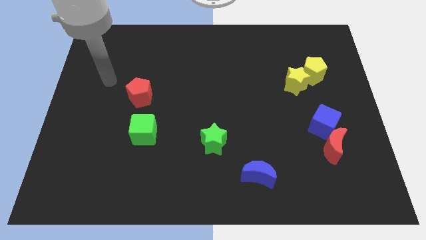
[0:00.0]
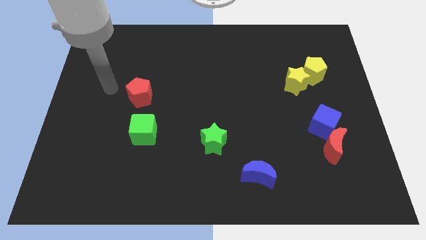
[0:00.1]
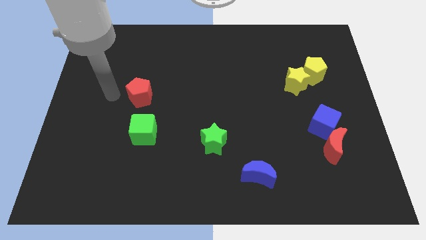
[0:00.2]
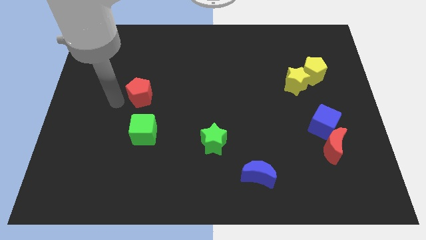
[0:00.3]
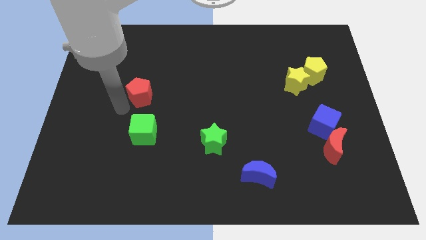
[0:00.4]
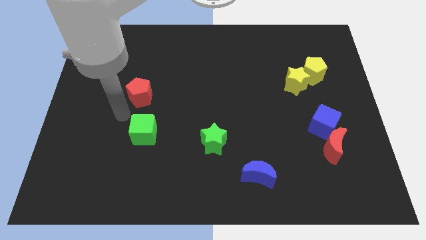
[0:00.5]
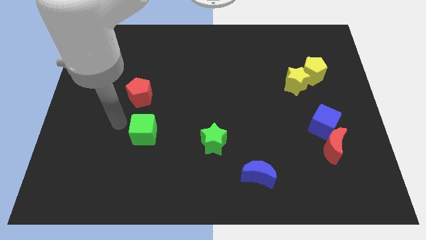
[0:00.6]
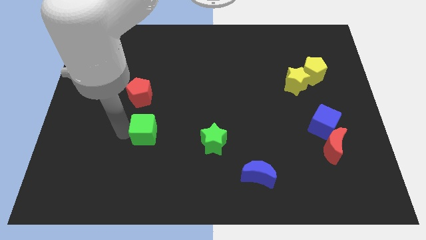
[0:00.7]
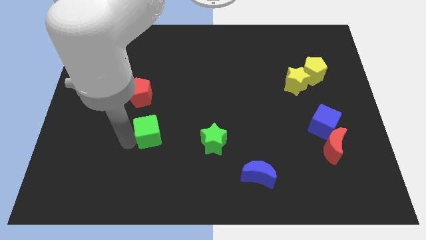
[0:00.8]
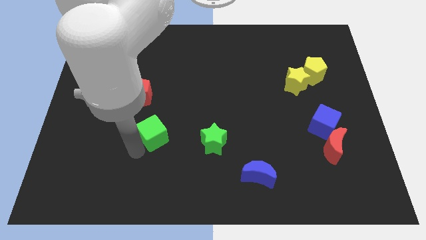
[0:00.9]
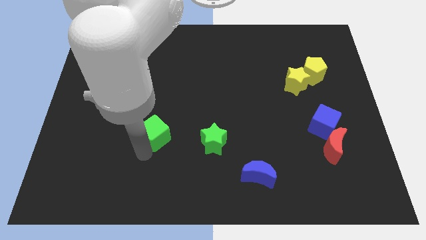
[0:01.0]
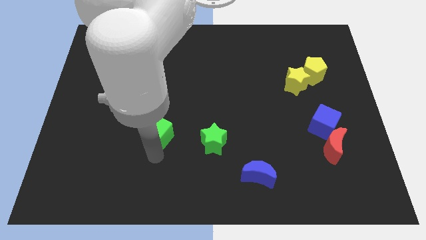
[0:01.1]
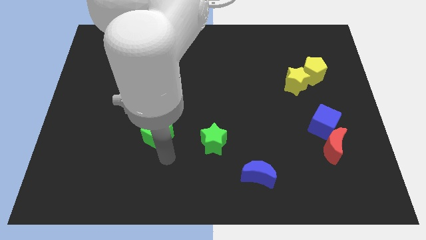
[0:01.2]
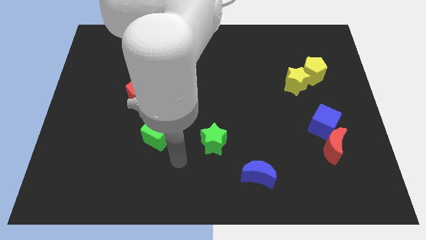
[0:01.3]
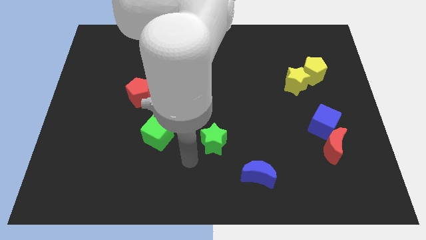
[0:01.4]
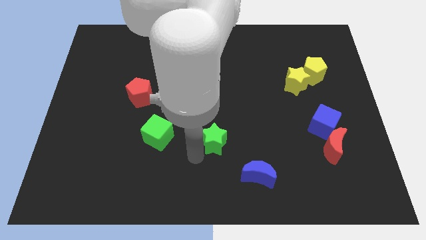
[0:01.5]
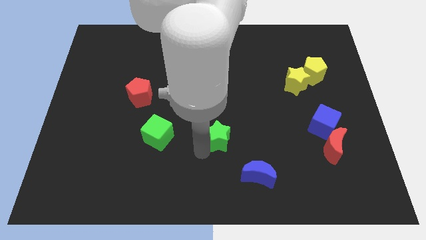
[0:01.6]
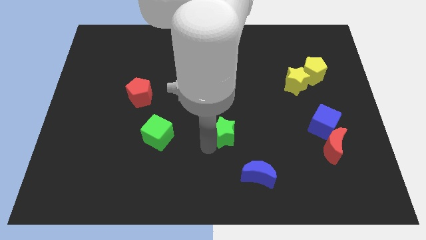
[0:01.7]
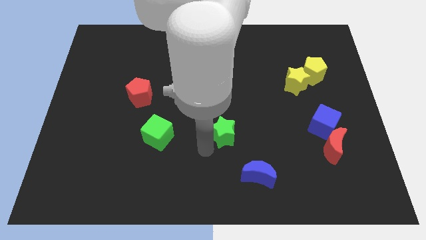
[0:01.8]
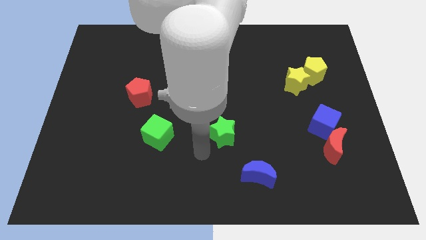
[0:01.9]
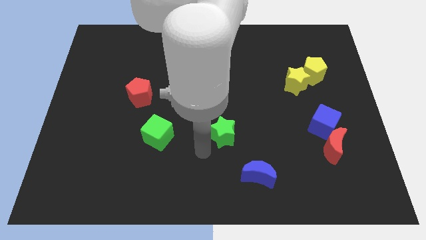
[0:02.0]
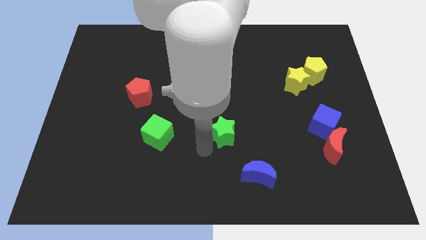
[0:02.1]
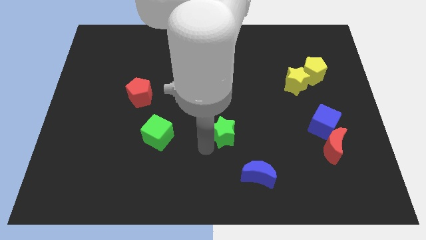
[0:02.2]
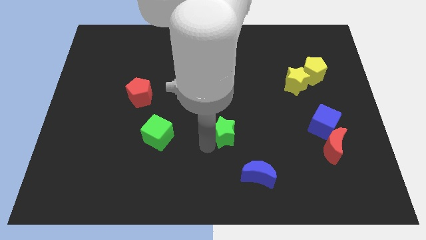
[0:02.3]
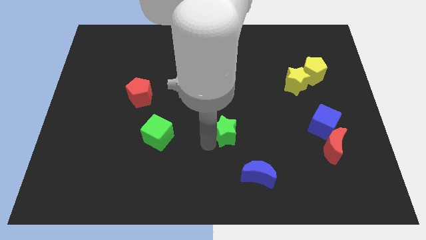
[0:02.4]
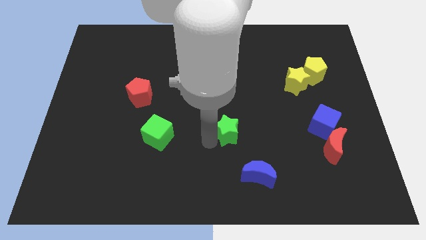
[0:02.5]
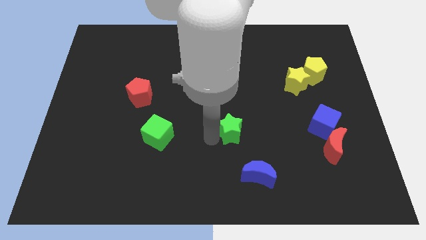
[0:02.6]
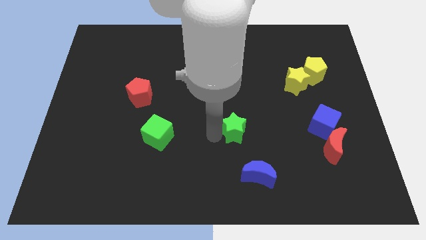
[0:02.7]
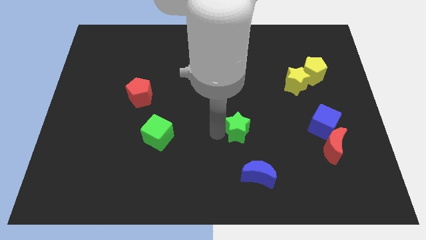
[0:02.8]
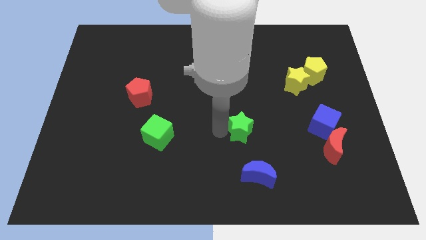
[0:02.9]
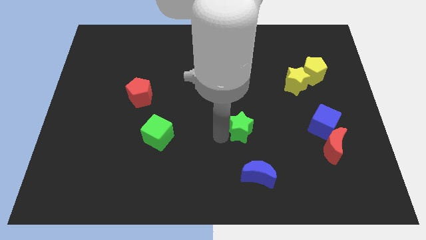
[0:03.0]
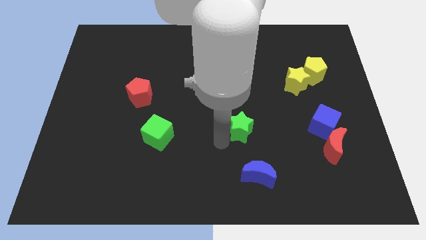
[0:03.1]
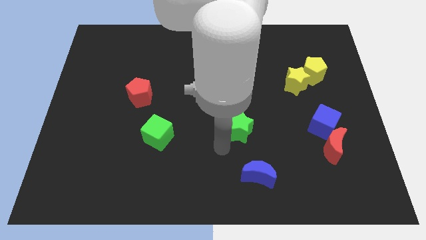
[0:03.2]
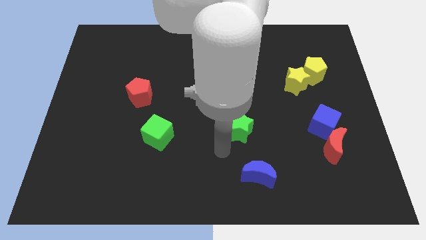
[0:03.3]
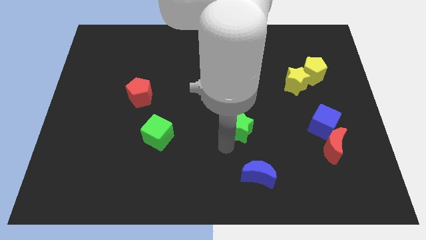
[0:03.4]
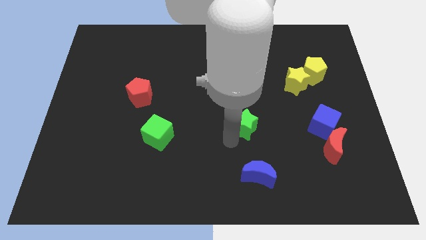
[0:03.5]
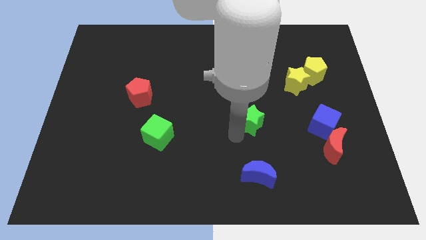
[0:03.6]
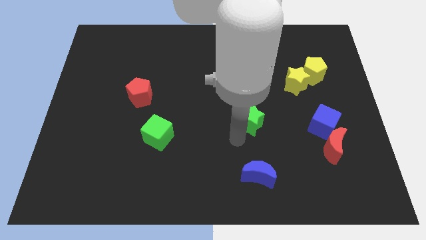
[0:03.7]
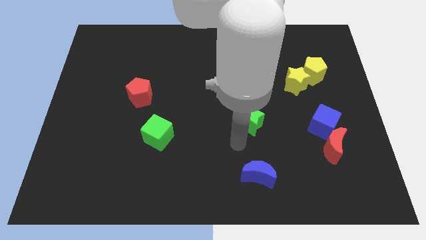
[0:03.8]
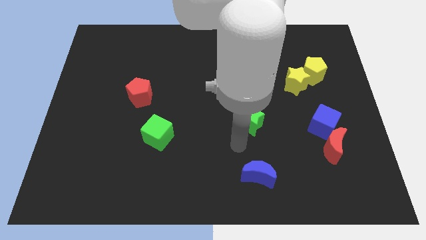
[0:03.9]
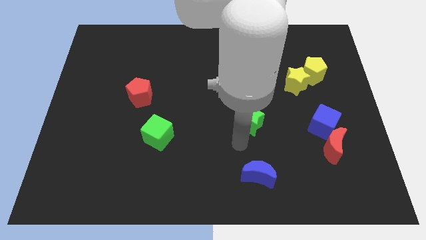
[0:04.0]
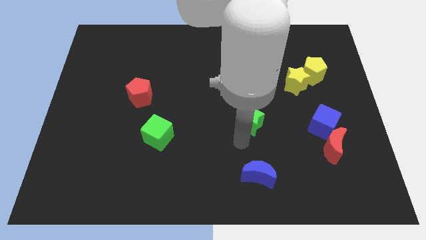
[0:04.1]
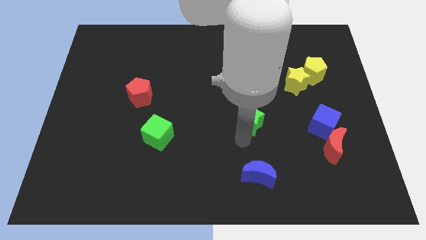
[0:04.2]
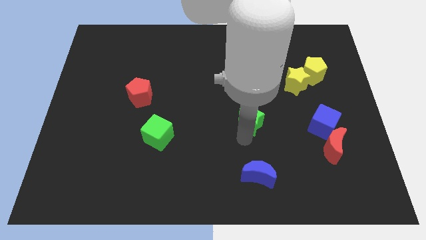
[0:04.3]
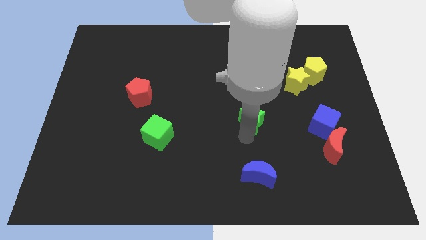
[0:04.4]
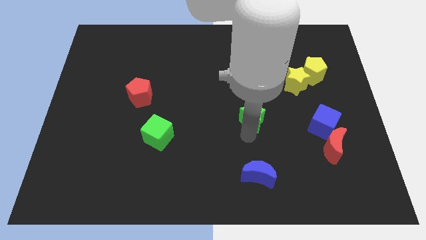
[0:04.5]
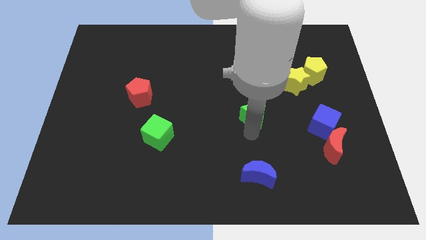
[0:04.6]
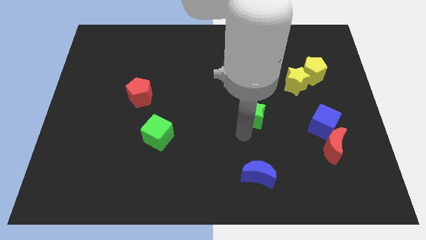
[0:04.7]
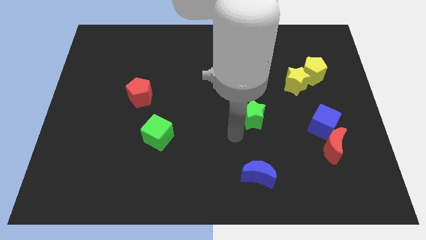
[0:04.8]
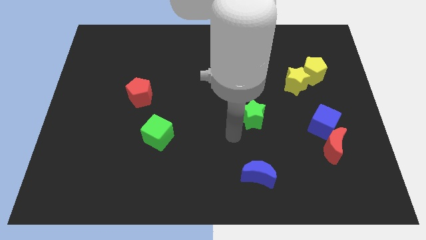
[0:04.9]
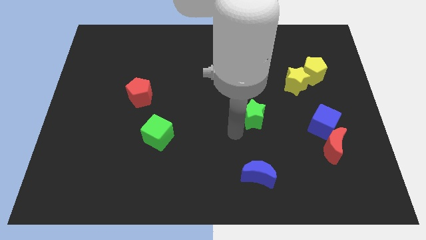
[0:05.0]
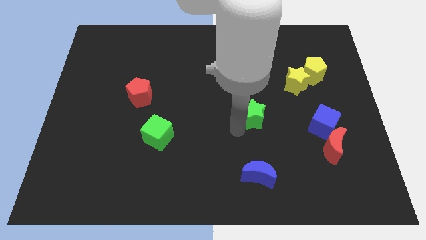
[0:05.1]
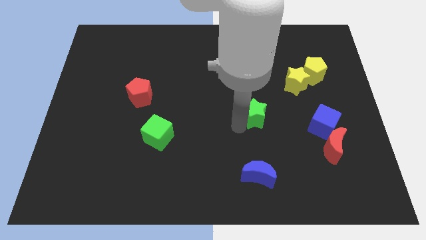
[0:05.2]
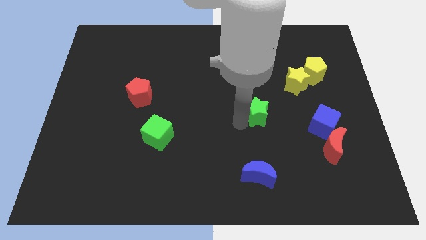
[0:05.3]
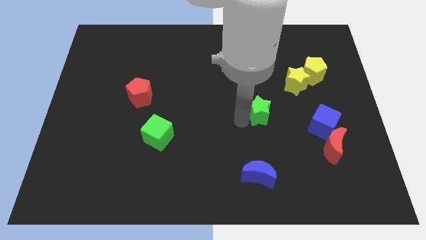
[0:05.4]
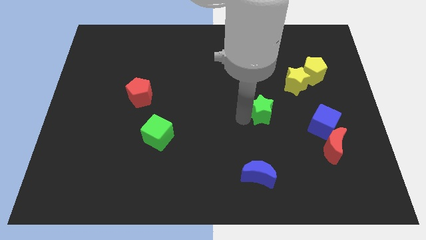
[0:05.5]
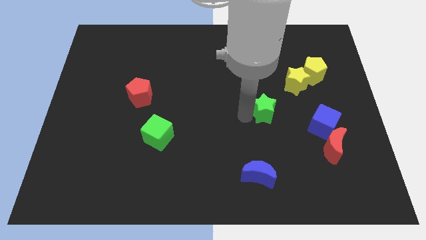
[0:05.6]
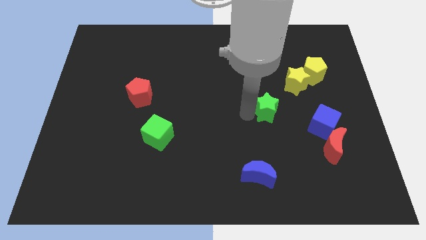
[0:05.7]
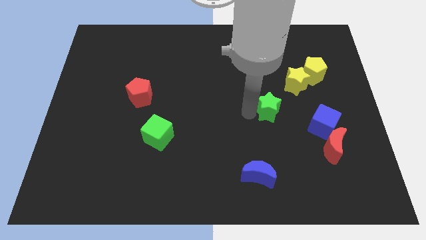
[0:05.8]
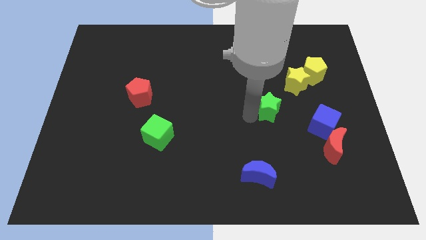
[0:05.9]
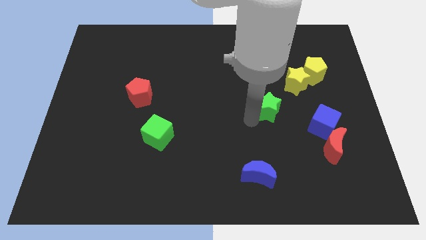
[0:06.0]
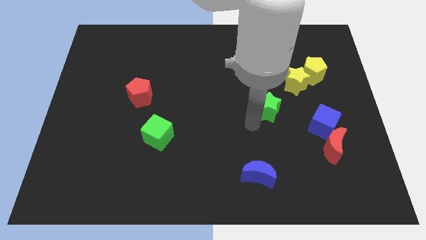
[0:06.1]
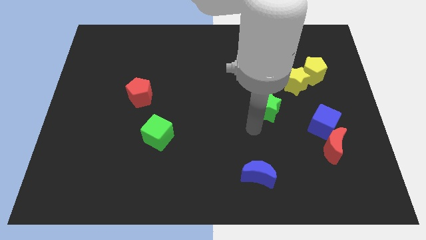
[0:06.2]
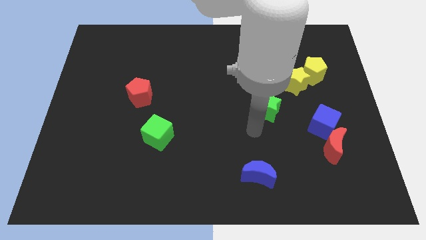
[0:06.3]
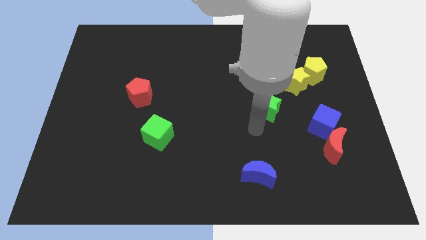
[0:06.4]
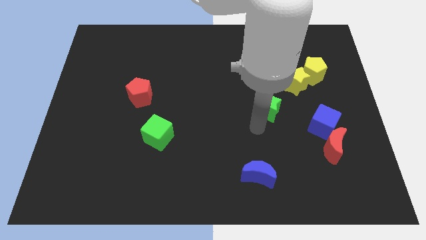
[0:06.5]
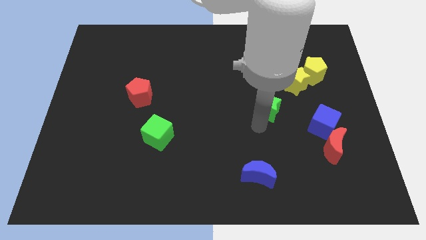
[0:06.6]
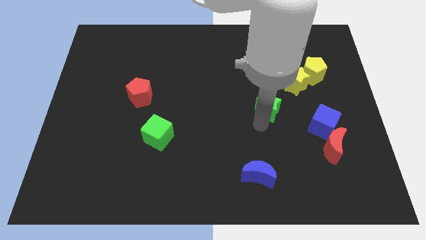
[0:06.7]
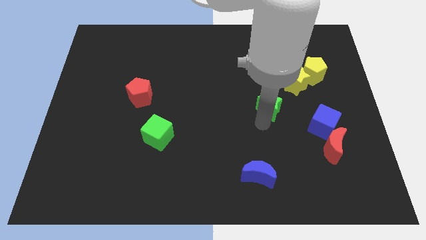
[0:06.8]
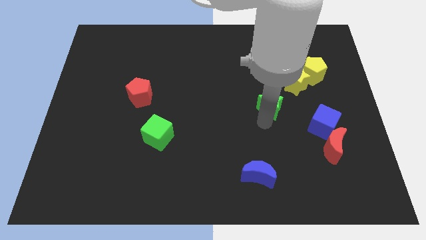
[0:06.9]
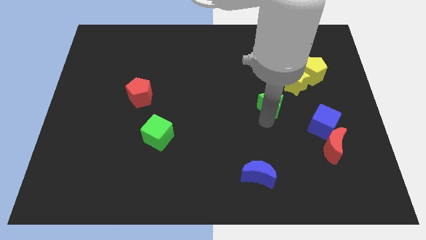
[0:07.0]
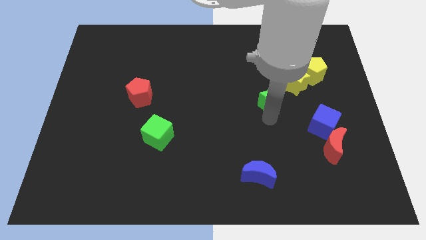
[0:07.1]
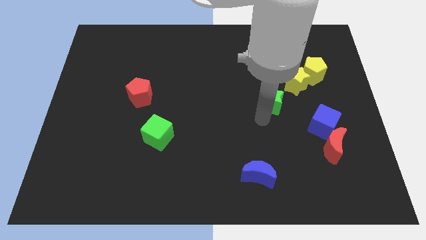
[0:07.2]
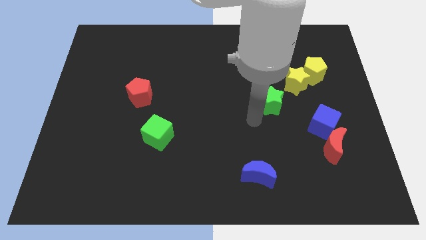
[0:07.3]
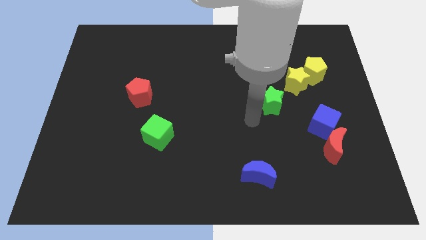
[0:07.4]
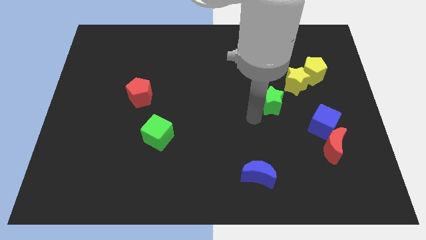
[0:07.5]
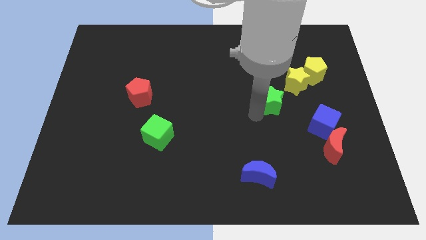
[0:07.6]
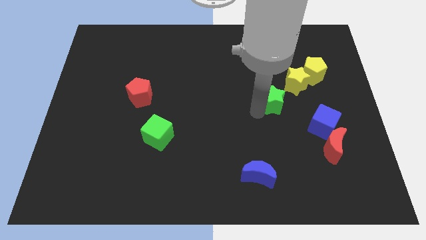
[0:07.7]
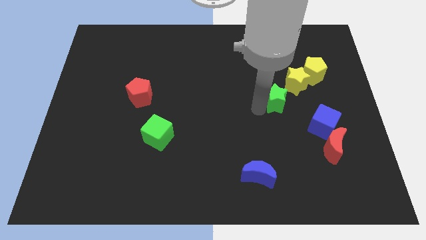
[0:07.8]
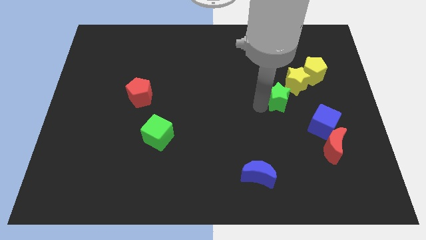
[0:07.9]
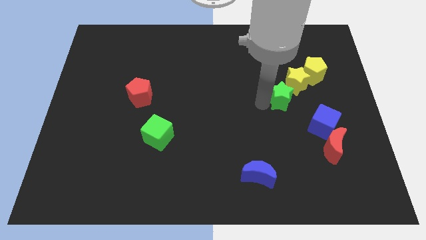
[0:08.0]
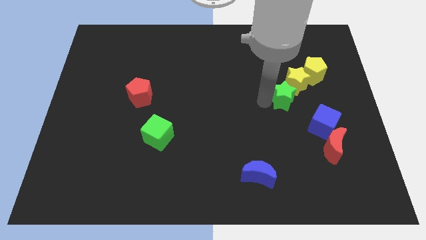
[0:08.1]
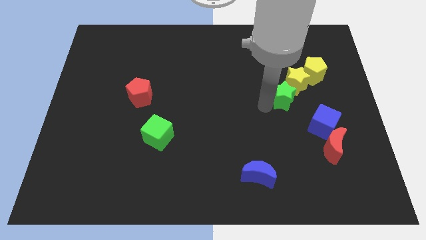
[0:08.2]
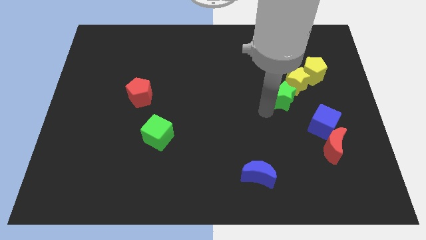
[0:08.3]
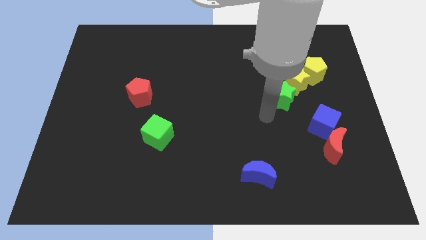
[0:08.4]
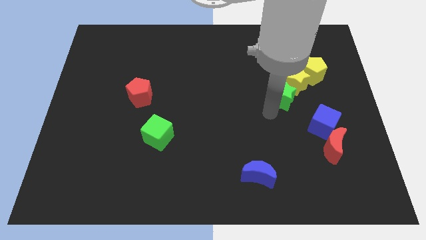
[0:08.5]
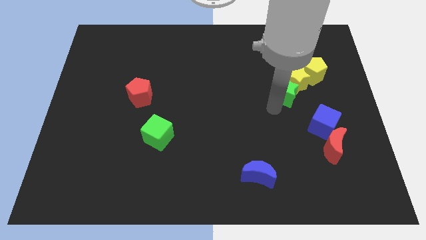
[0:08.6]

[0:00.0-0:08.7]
push the green star to the yellow star
